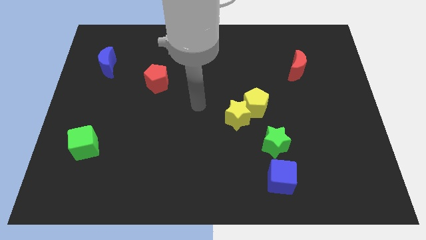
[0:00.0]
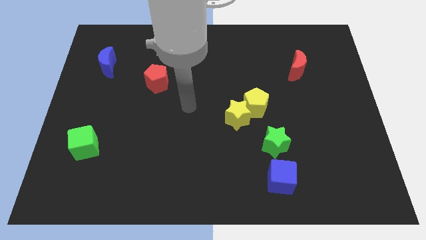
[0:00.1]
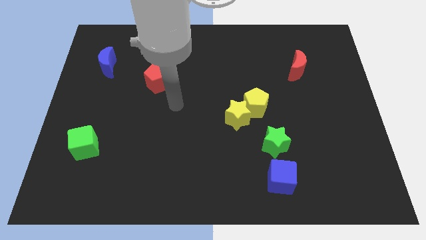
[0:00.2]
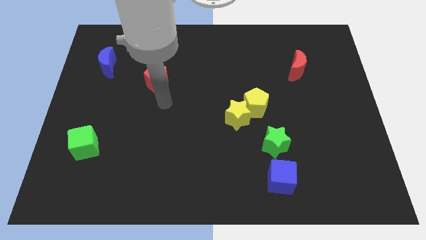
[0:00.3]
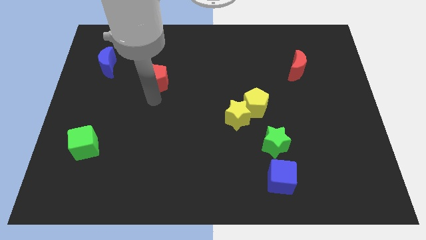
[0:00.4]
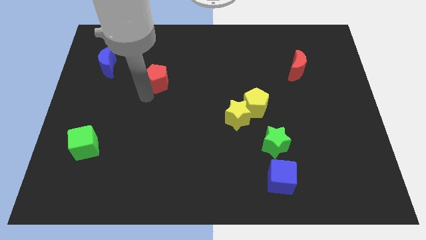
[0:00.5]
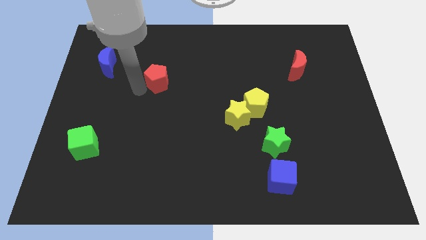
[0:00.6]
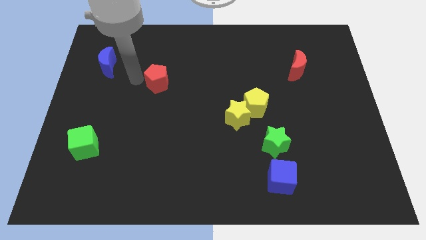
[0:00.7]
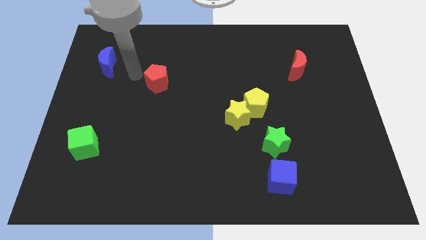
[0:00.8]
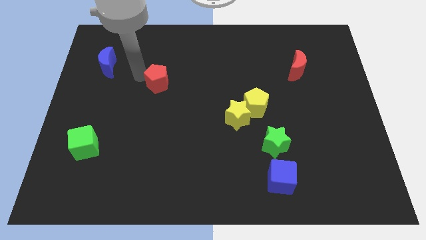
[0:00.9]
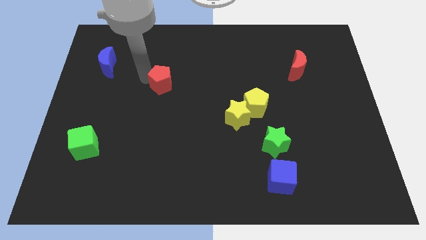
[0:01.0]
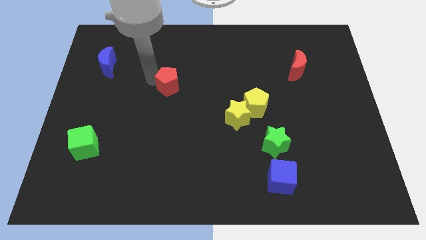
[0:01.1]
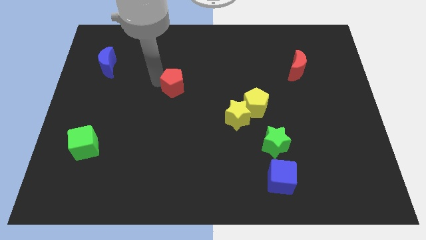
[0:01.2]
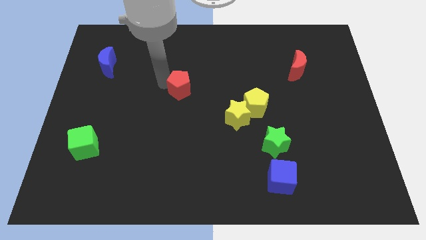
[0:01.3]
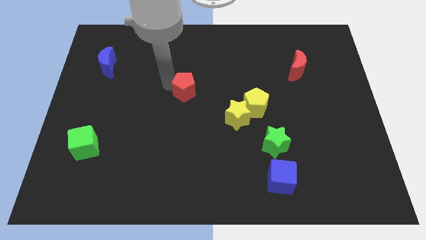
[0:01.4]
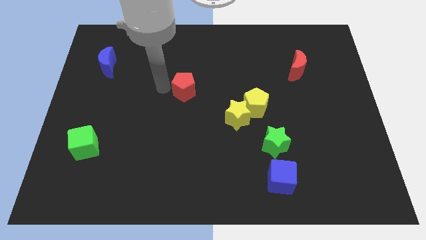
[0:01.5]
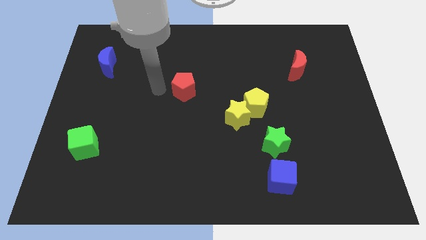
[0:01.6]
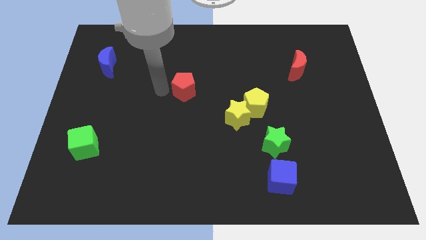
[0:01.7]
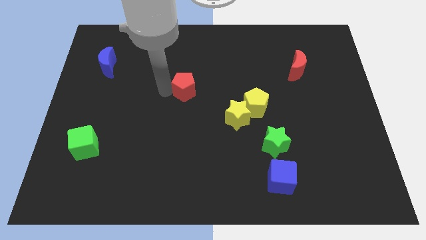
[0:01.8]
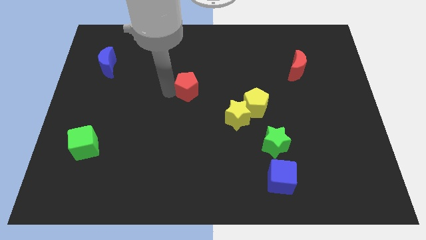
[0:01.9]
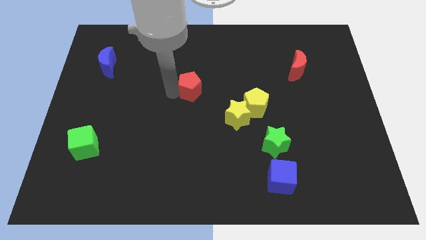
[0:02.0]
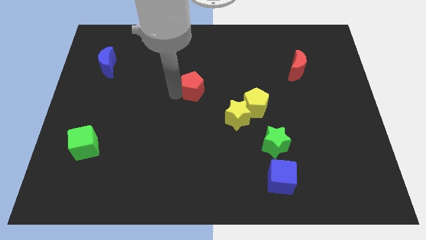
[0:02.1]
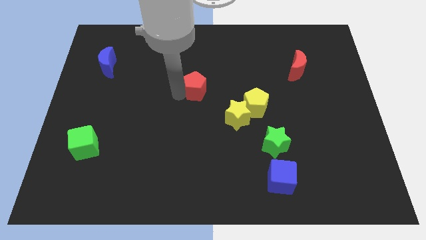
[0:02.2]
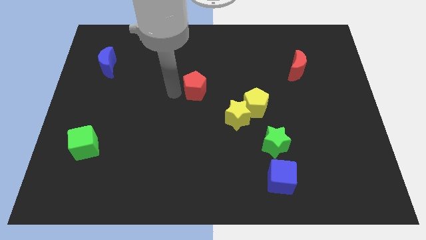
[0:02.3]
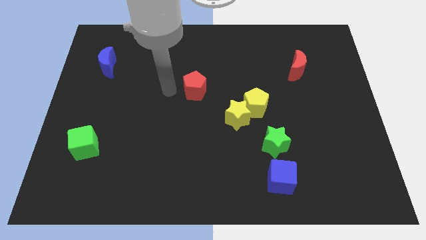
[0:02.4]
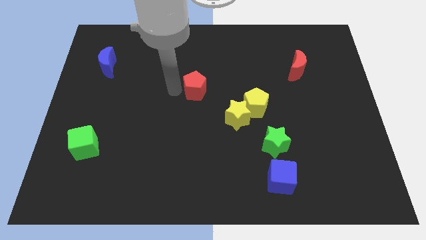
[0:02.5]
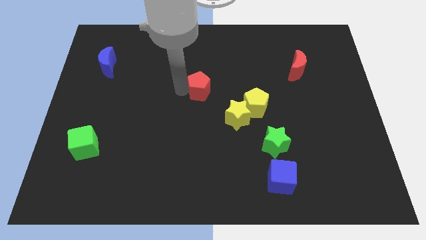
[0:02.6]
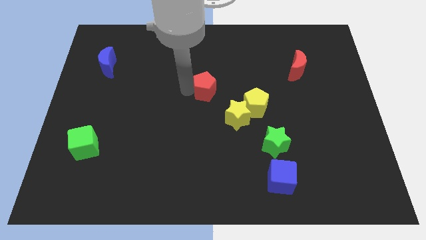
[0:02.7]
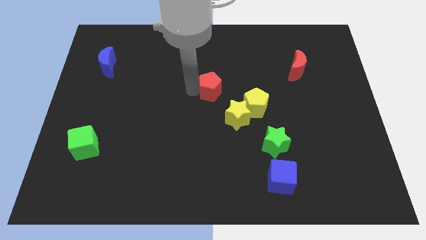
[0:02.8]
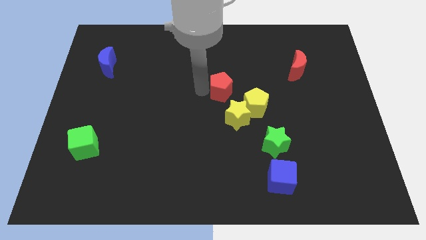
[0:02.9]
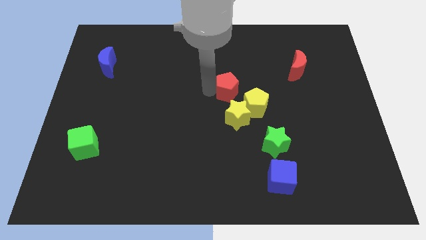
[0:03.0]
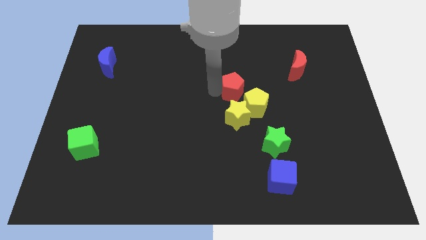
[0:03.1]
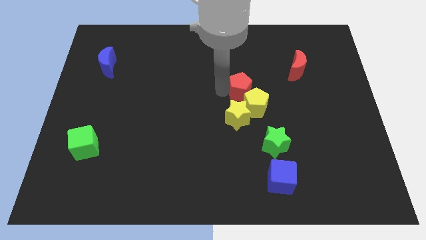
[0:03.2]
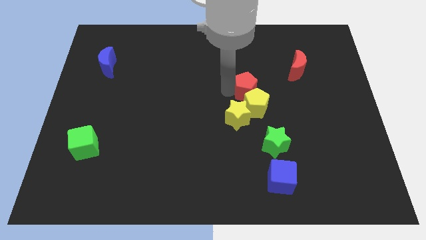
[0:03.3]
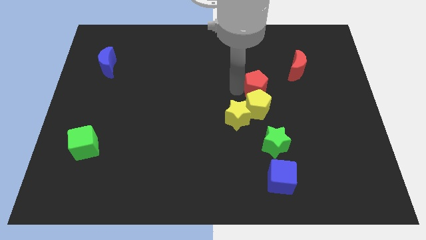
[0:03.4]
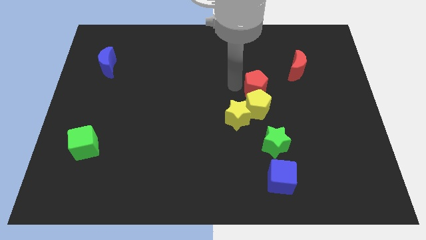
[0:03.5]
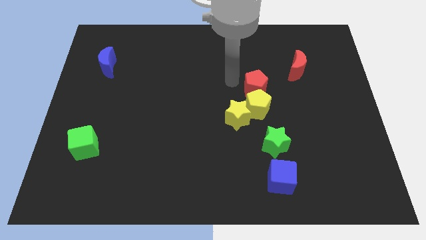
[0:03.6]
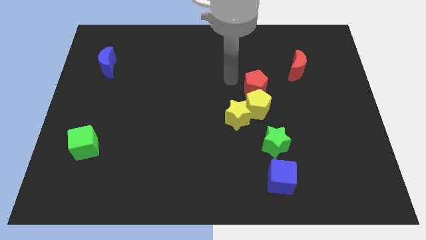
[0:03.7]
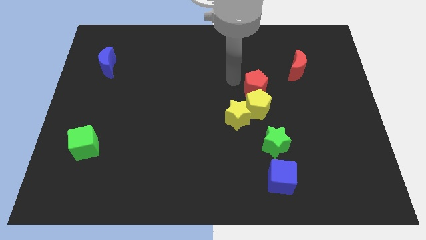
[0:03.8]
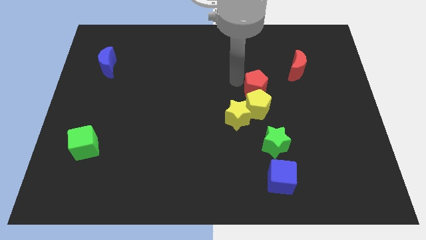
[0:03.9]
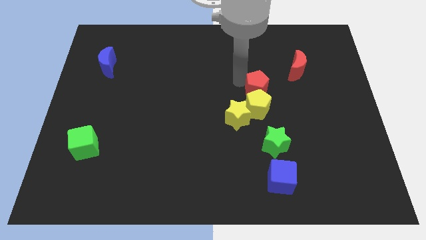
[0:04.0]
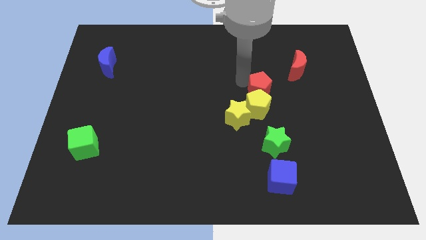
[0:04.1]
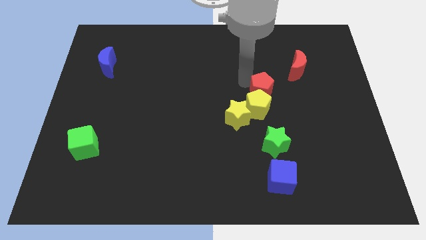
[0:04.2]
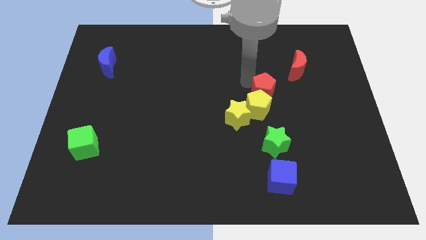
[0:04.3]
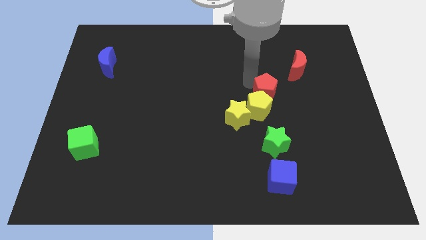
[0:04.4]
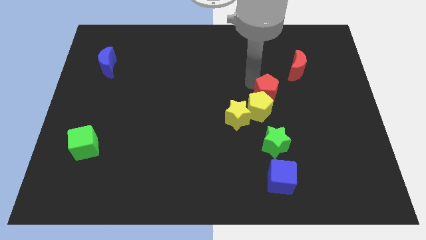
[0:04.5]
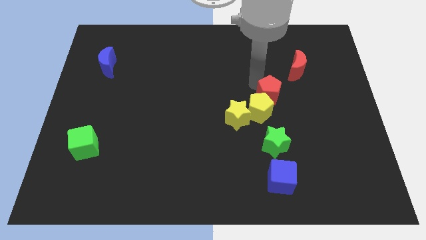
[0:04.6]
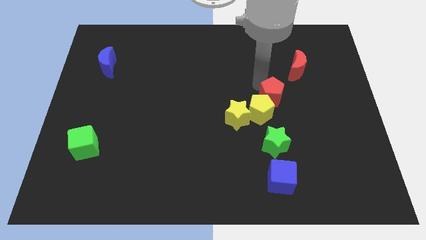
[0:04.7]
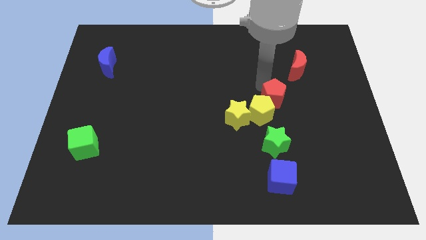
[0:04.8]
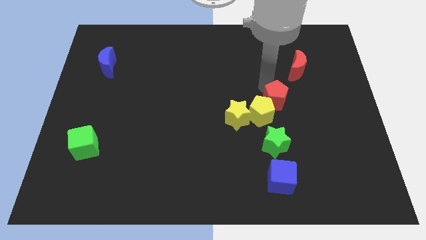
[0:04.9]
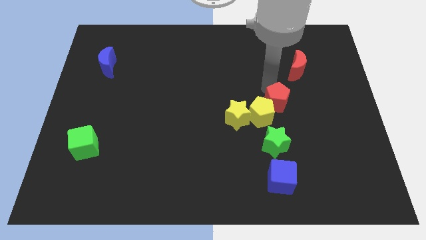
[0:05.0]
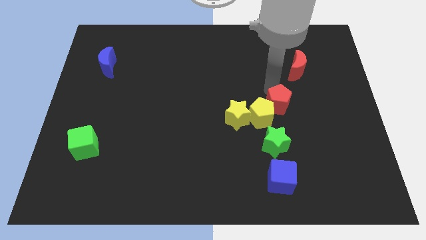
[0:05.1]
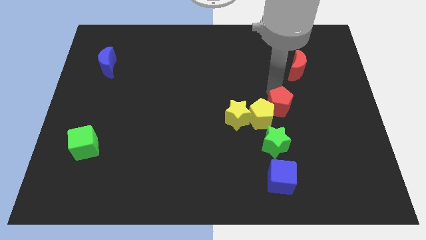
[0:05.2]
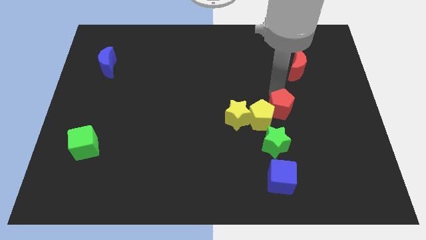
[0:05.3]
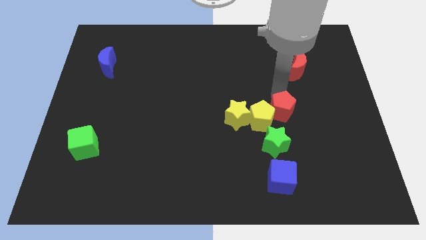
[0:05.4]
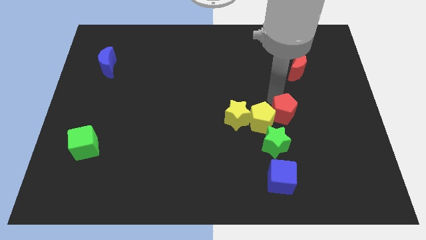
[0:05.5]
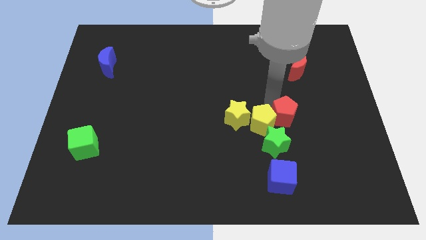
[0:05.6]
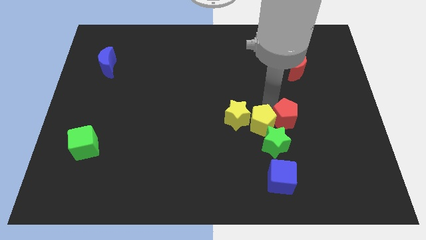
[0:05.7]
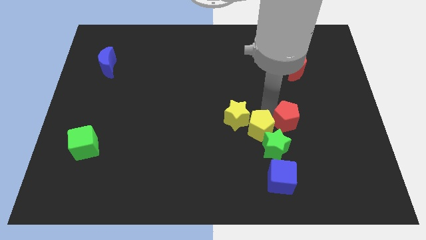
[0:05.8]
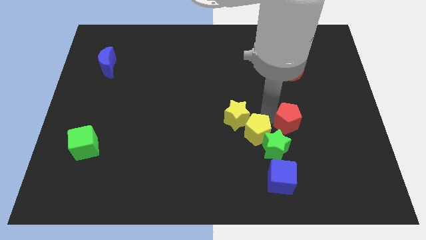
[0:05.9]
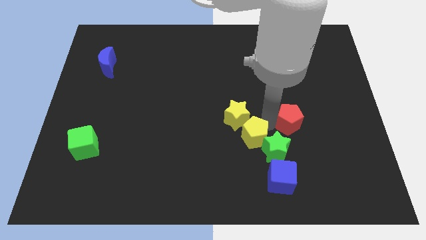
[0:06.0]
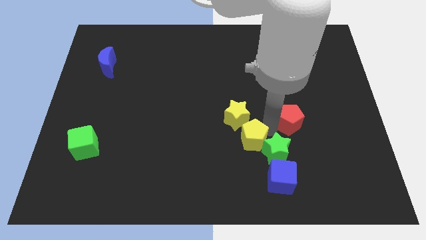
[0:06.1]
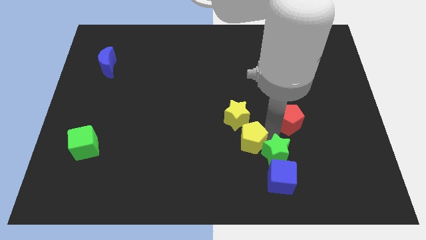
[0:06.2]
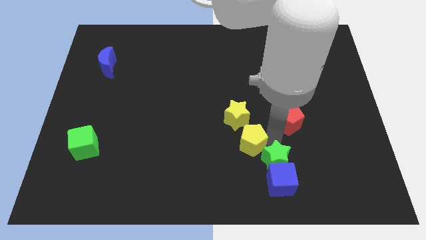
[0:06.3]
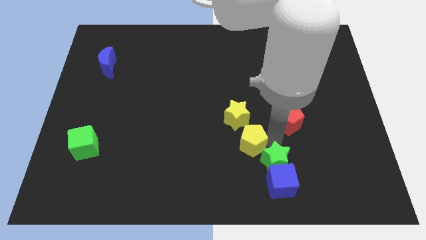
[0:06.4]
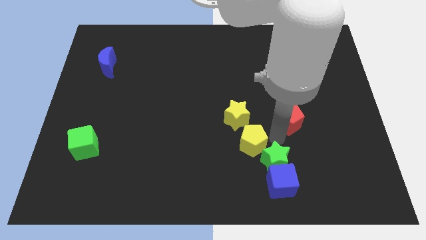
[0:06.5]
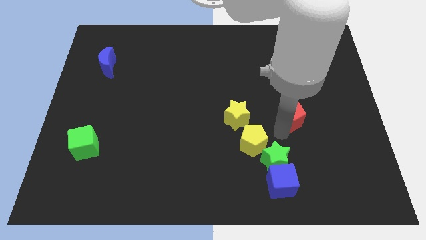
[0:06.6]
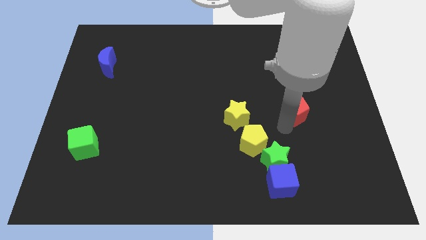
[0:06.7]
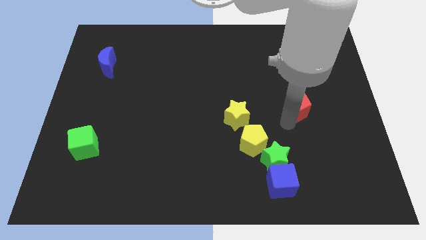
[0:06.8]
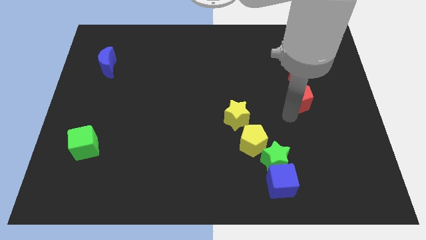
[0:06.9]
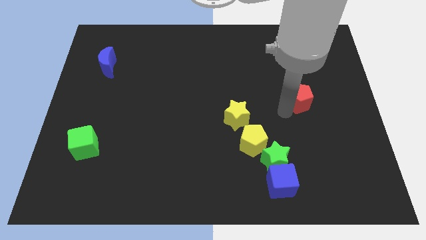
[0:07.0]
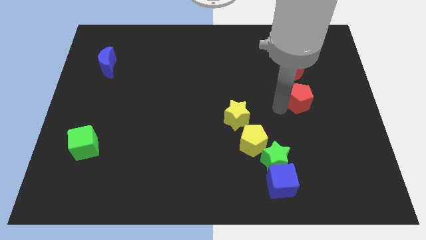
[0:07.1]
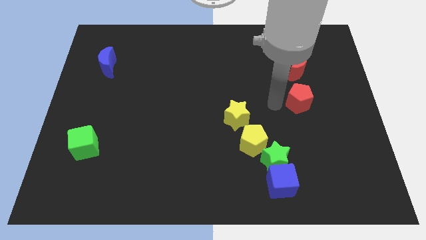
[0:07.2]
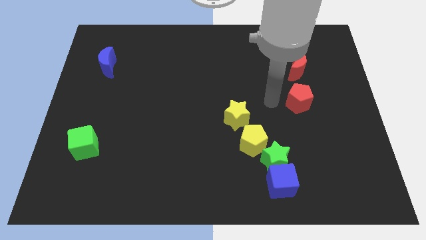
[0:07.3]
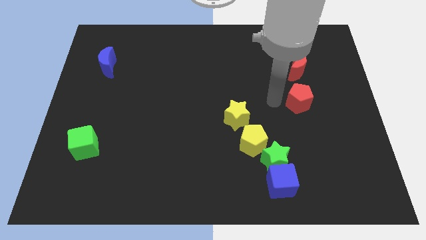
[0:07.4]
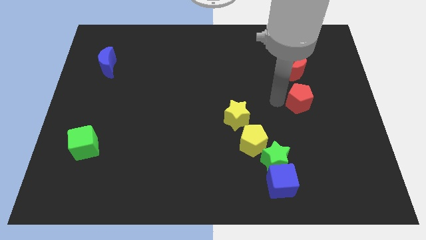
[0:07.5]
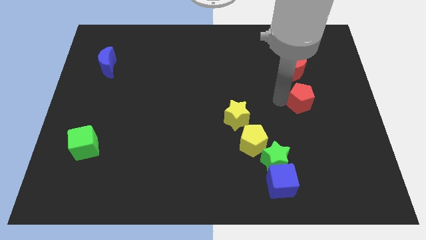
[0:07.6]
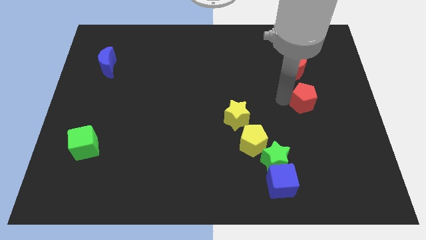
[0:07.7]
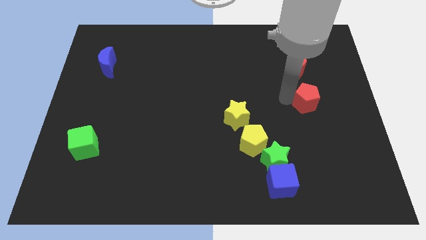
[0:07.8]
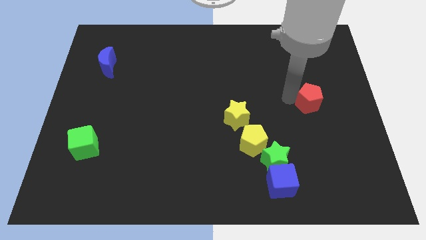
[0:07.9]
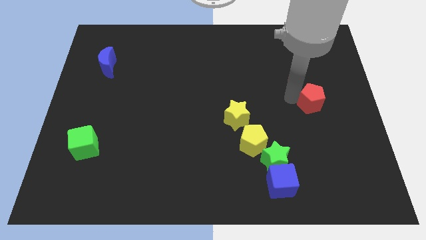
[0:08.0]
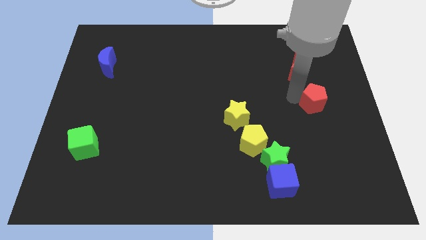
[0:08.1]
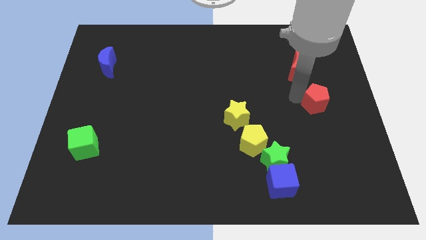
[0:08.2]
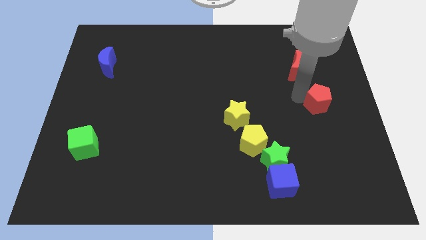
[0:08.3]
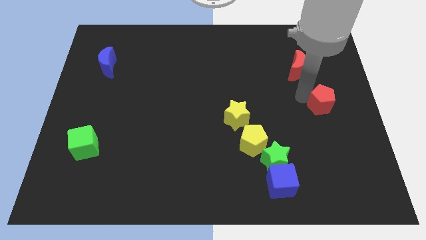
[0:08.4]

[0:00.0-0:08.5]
slide the red pentagon to the center right
